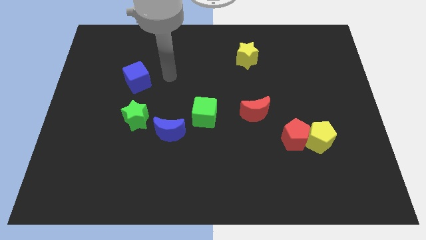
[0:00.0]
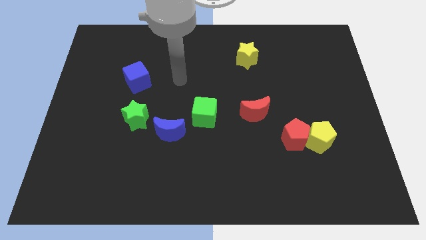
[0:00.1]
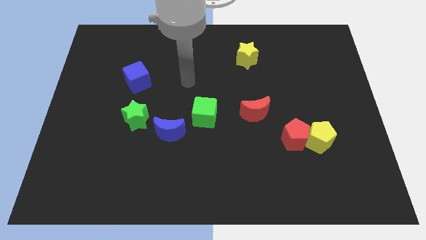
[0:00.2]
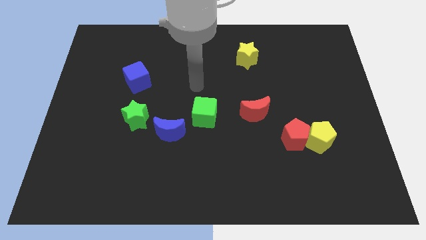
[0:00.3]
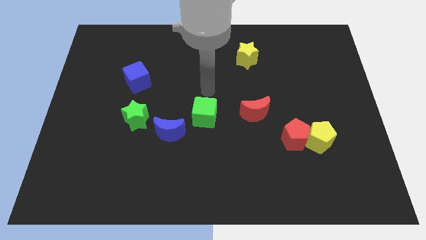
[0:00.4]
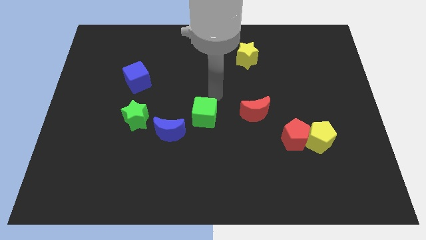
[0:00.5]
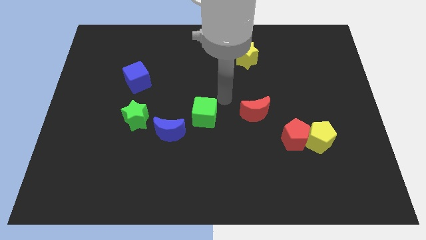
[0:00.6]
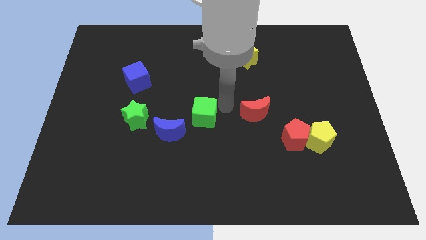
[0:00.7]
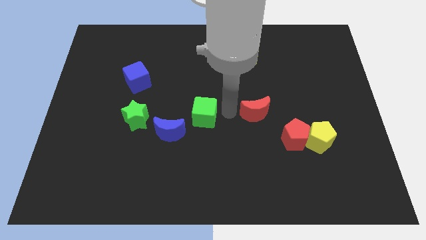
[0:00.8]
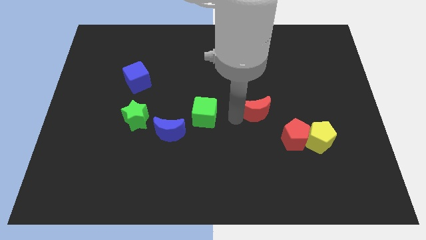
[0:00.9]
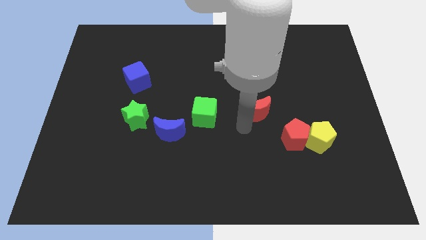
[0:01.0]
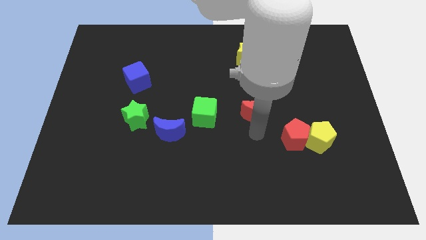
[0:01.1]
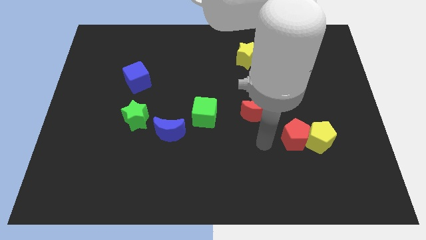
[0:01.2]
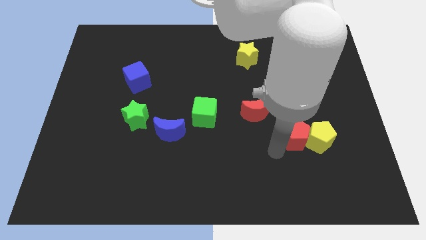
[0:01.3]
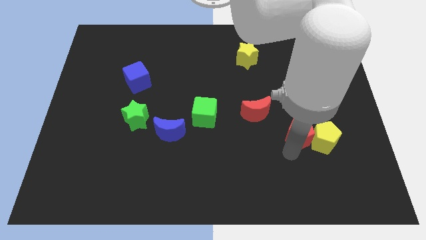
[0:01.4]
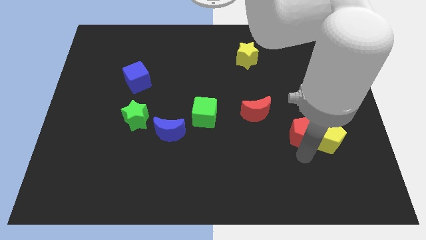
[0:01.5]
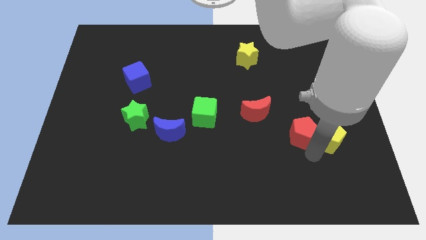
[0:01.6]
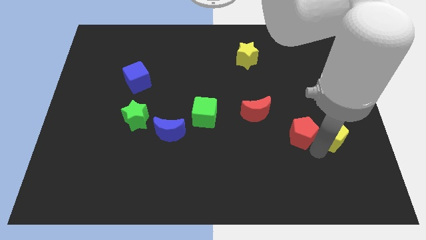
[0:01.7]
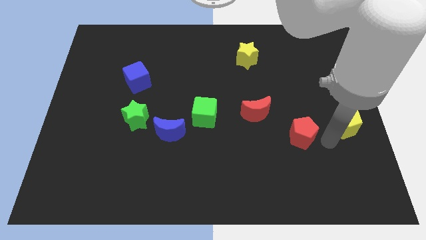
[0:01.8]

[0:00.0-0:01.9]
separate the red pentagon from the yellow pentagon

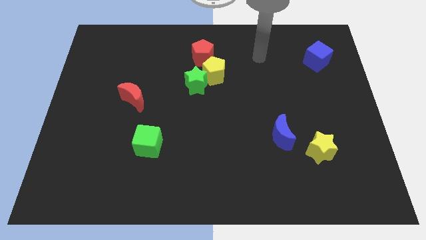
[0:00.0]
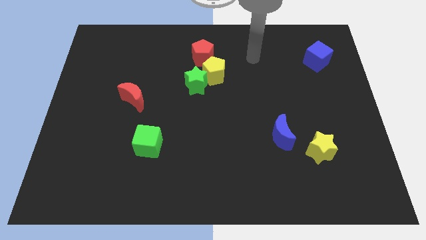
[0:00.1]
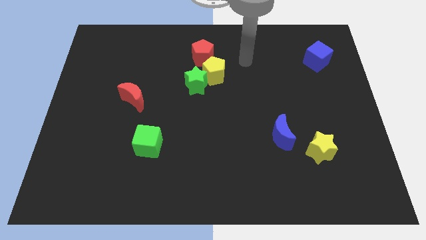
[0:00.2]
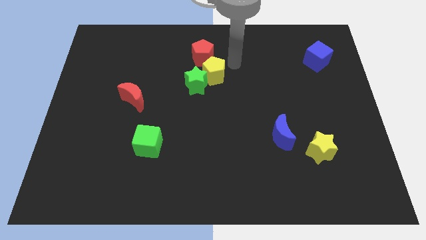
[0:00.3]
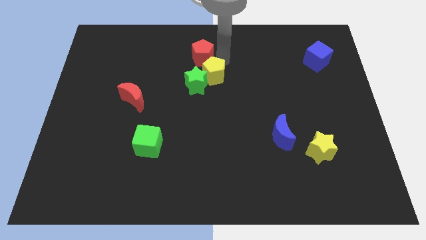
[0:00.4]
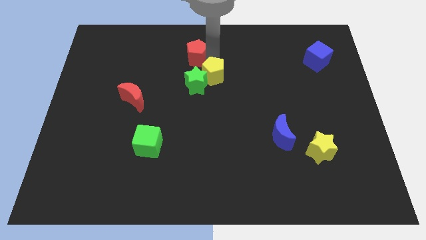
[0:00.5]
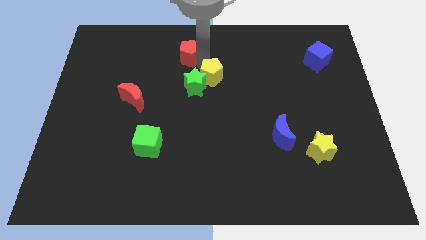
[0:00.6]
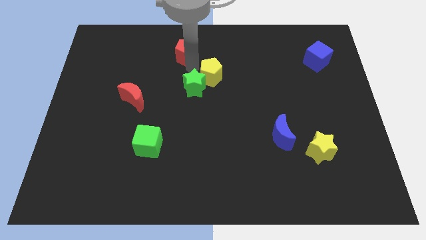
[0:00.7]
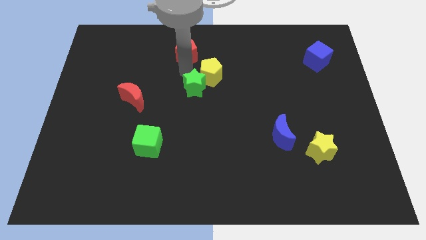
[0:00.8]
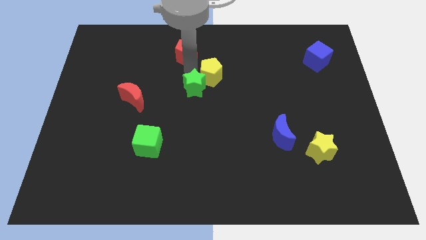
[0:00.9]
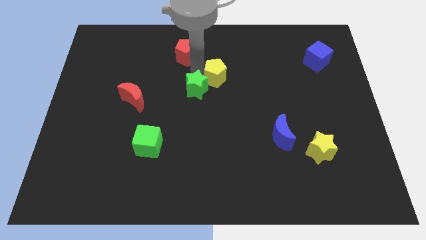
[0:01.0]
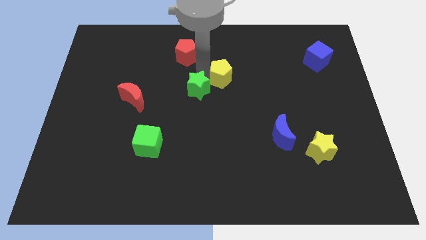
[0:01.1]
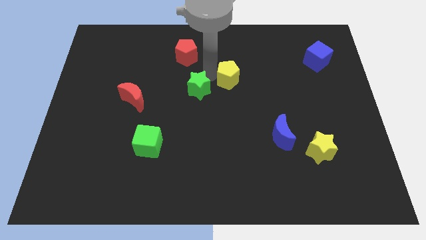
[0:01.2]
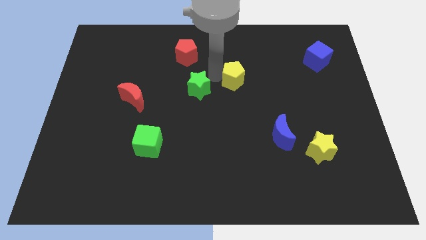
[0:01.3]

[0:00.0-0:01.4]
move the yellow pentagon away from the green star and red pentagon

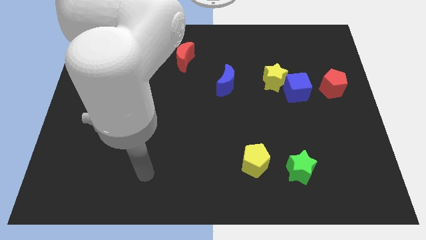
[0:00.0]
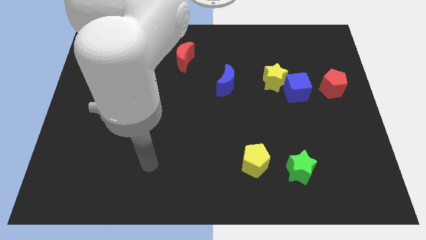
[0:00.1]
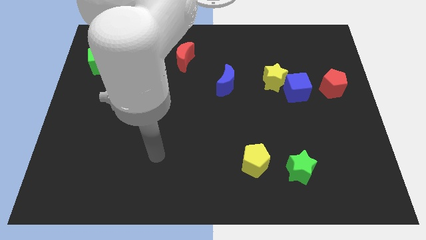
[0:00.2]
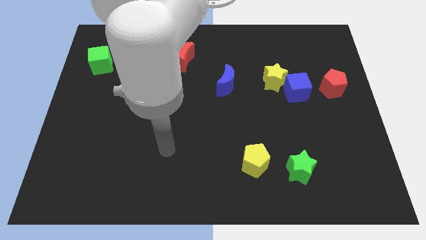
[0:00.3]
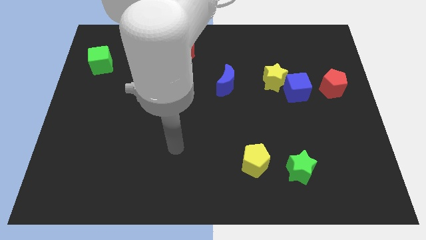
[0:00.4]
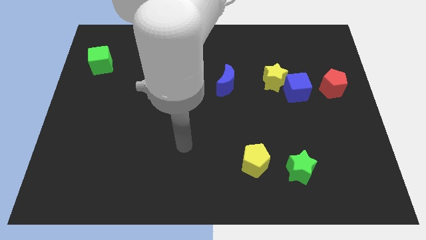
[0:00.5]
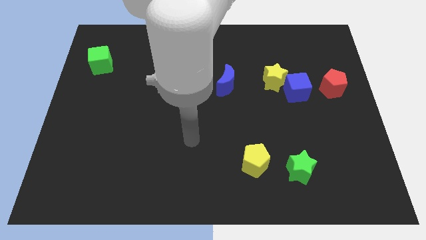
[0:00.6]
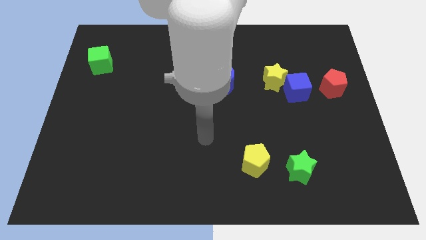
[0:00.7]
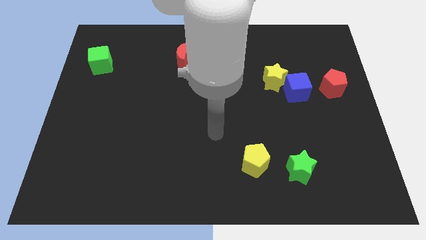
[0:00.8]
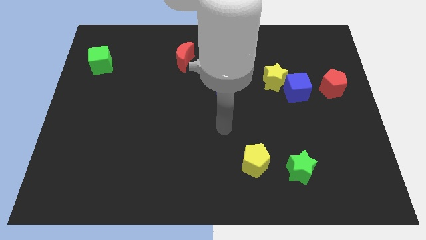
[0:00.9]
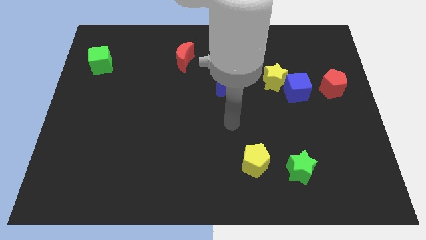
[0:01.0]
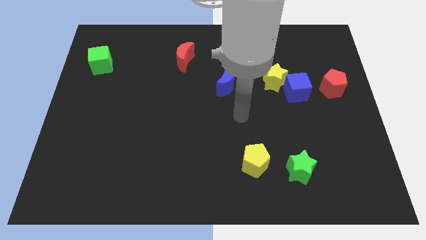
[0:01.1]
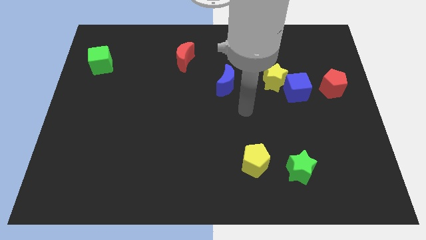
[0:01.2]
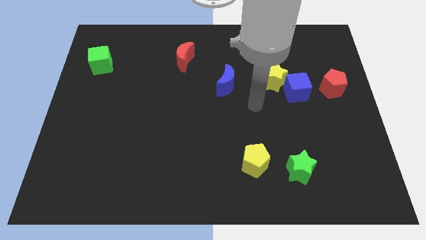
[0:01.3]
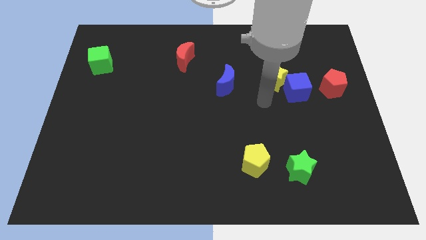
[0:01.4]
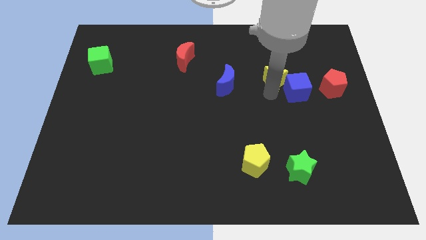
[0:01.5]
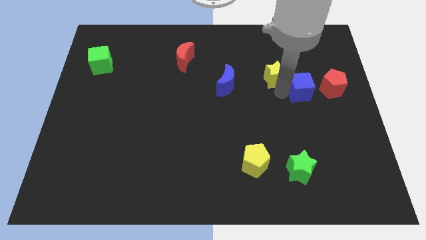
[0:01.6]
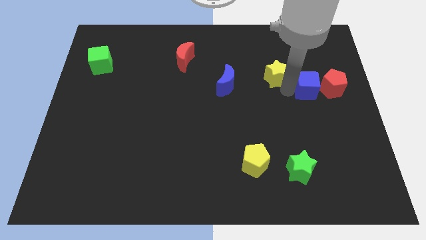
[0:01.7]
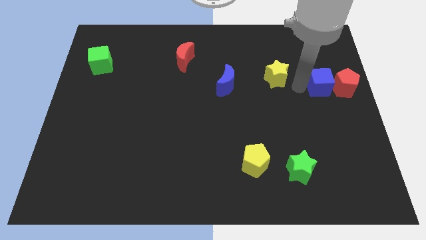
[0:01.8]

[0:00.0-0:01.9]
pull the yellow star apart from the blue cube

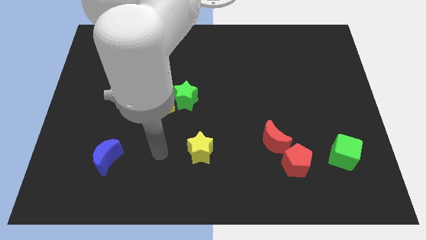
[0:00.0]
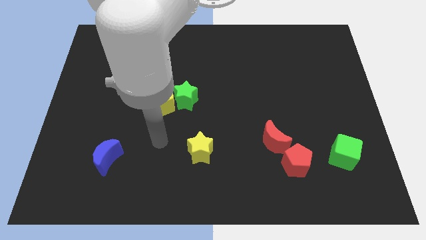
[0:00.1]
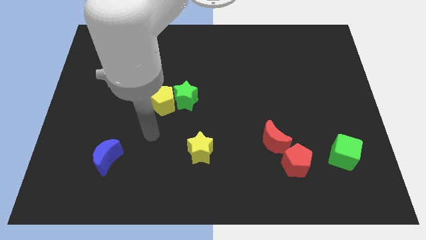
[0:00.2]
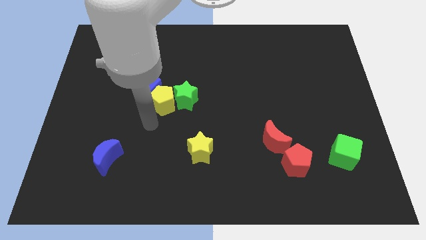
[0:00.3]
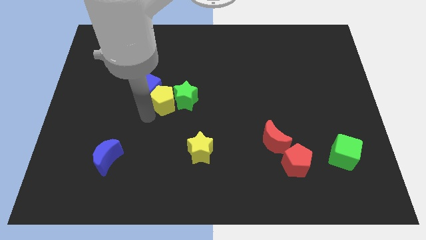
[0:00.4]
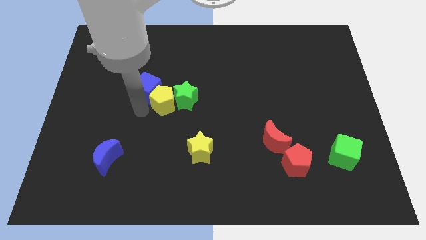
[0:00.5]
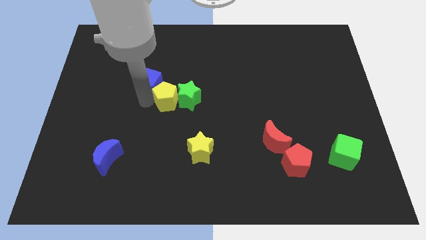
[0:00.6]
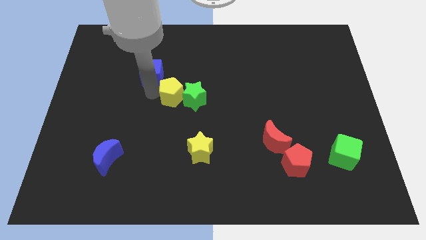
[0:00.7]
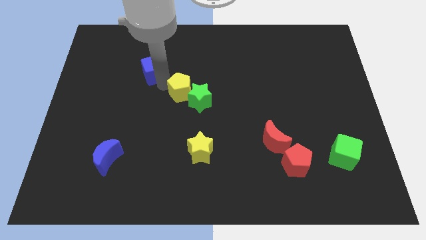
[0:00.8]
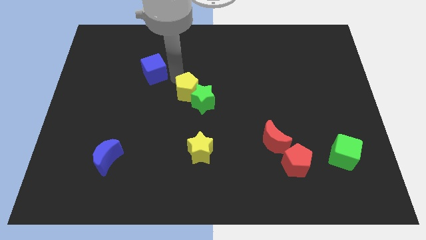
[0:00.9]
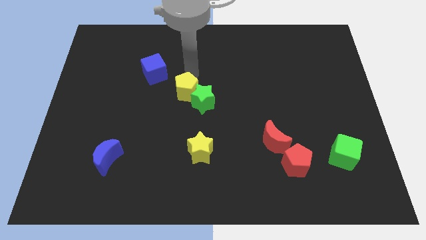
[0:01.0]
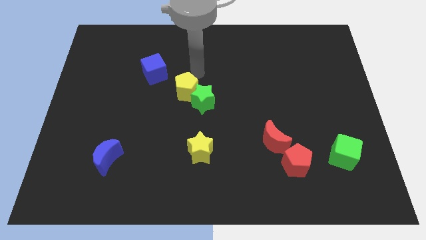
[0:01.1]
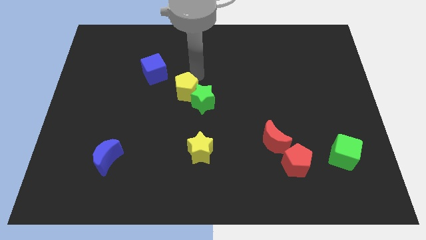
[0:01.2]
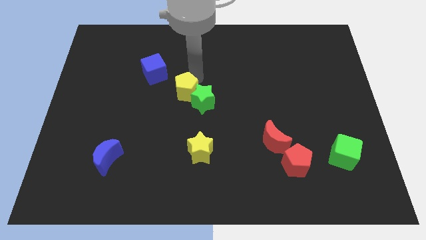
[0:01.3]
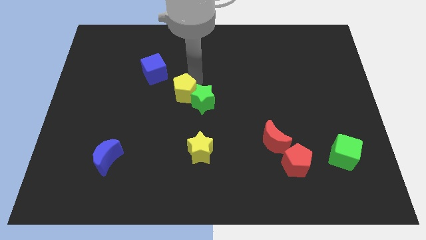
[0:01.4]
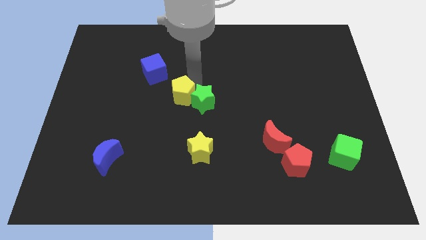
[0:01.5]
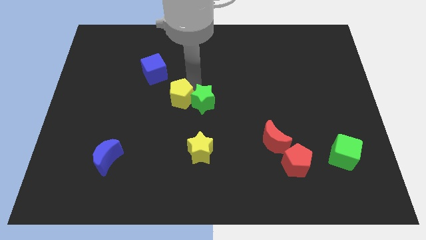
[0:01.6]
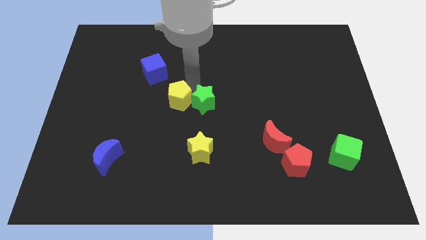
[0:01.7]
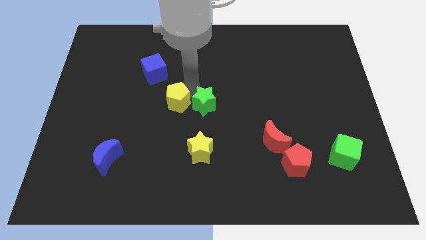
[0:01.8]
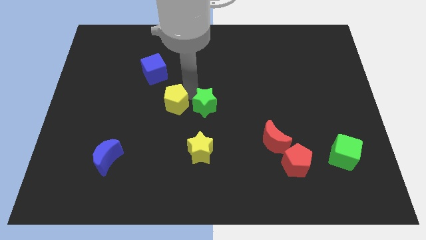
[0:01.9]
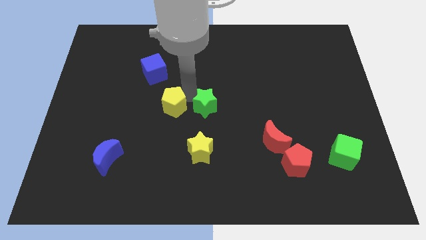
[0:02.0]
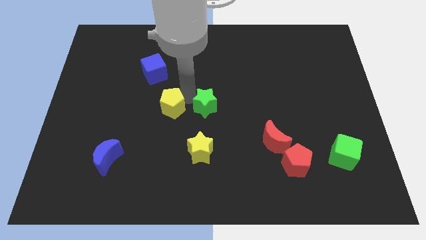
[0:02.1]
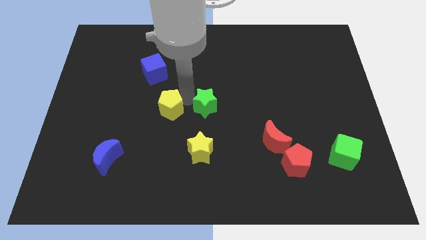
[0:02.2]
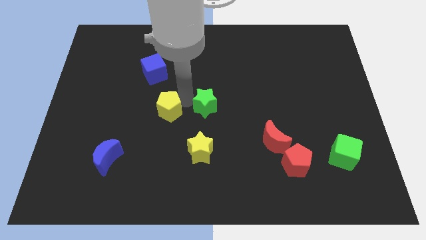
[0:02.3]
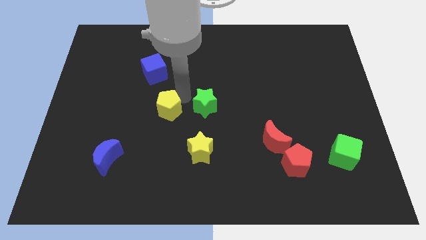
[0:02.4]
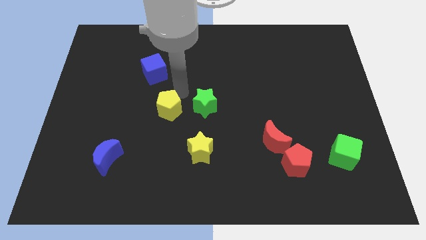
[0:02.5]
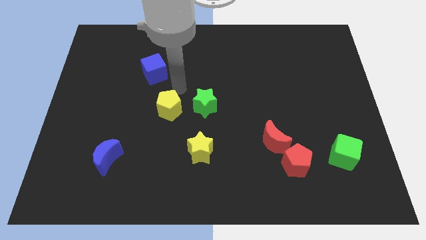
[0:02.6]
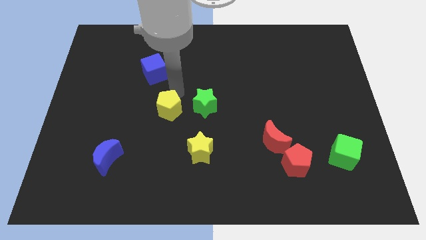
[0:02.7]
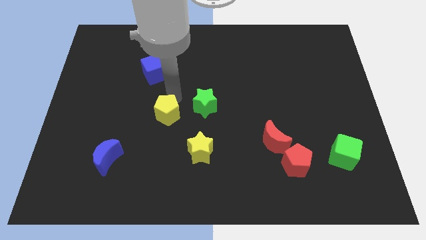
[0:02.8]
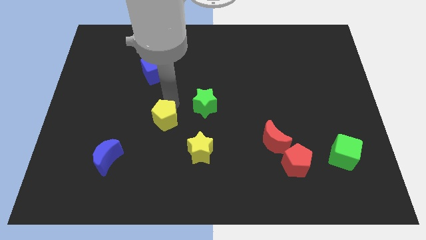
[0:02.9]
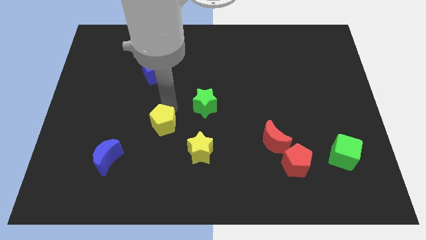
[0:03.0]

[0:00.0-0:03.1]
separate the yellow pentagon from the green star and blue cube

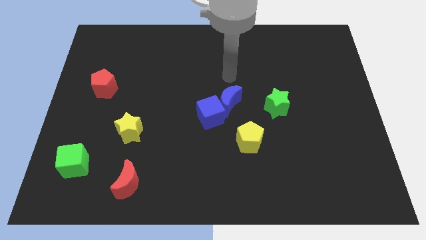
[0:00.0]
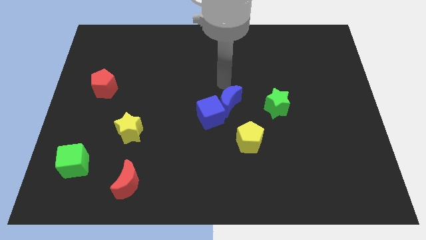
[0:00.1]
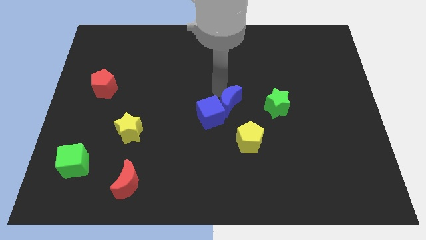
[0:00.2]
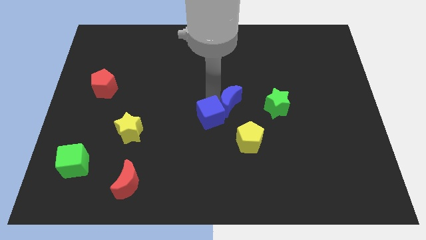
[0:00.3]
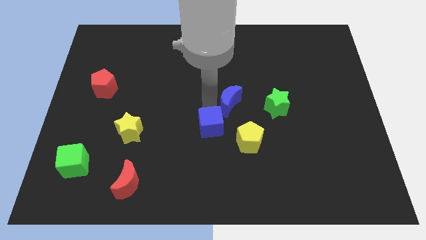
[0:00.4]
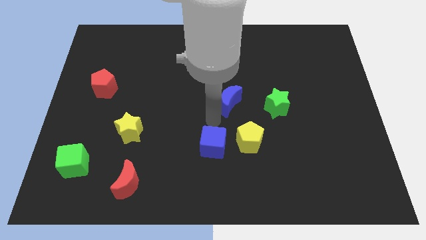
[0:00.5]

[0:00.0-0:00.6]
pull the blue moon apart from the blue cube

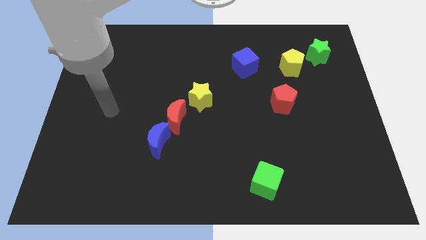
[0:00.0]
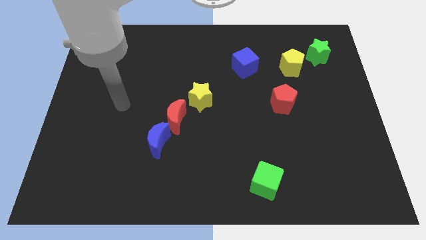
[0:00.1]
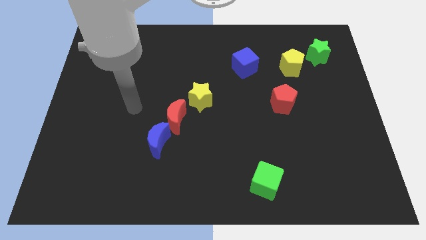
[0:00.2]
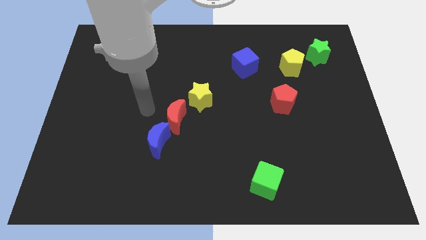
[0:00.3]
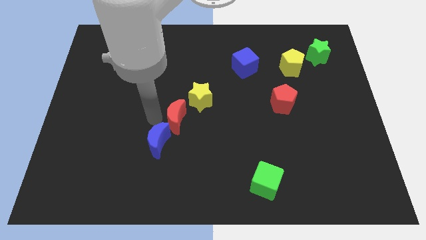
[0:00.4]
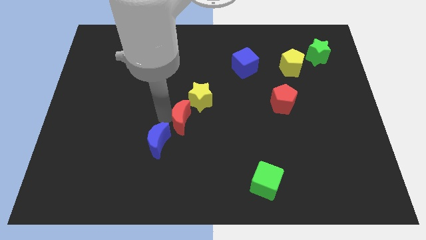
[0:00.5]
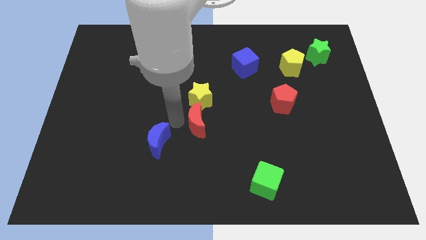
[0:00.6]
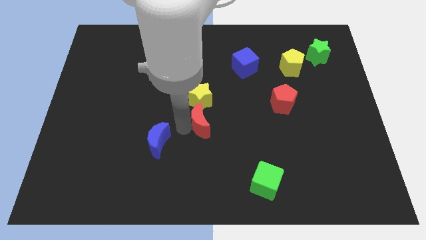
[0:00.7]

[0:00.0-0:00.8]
separate the blue moon from the red moon
